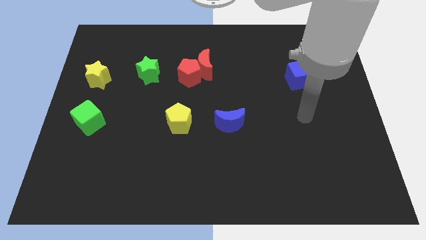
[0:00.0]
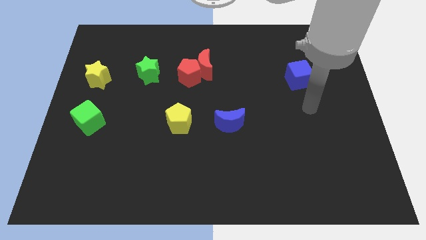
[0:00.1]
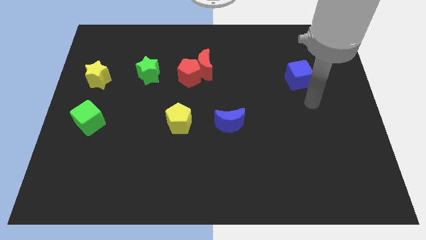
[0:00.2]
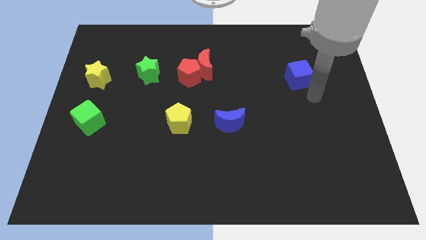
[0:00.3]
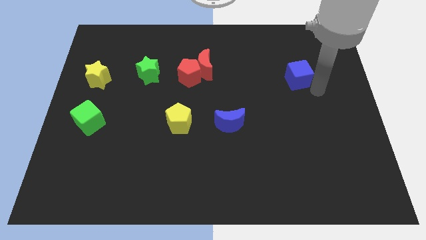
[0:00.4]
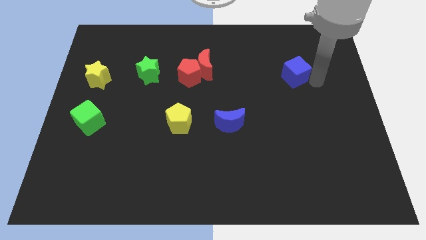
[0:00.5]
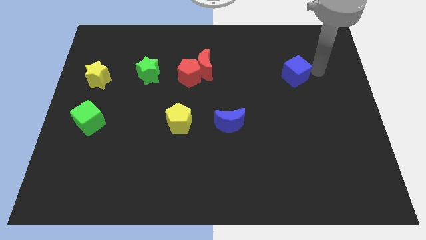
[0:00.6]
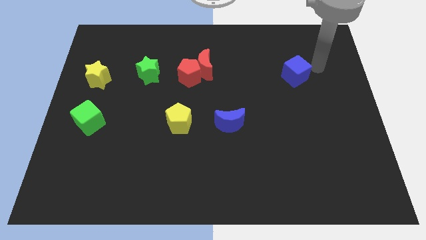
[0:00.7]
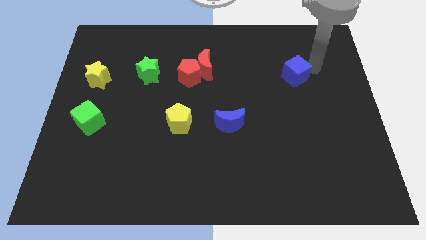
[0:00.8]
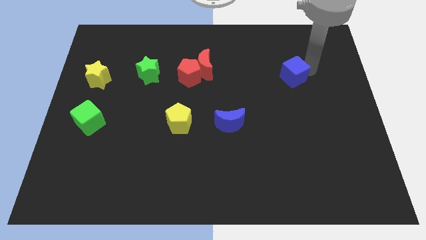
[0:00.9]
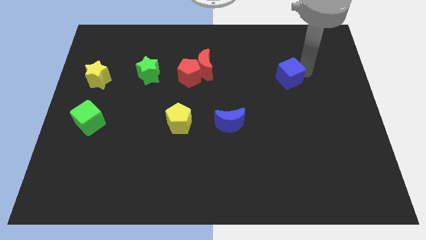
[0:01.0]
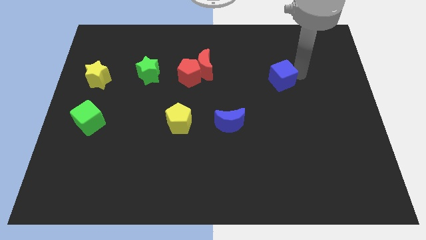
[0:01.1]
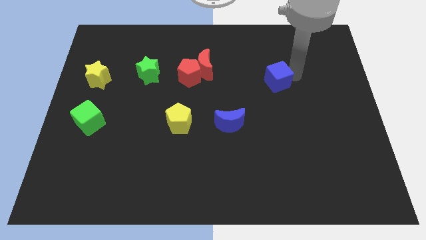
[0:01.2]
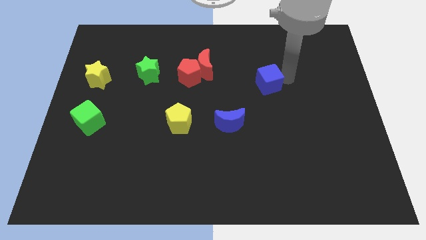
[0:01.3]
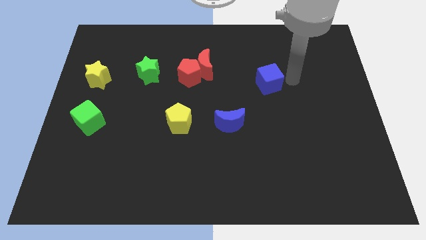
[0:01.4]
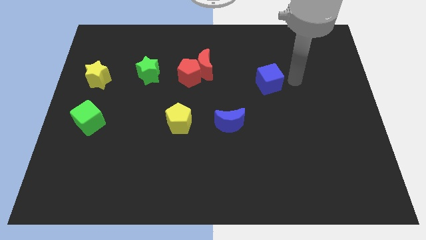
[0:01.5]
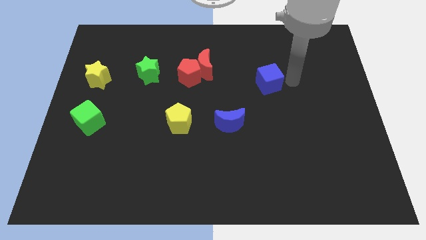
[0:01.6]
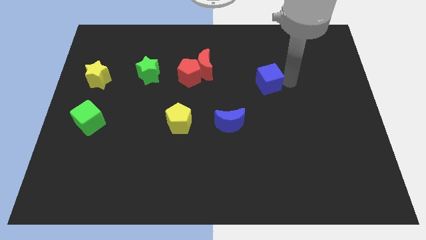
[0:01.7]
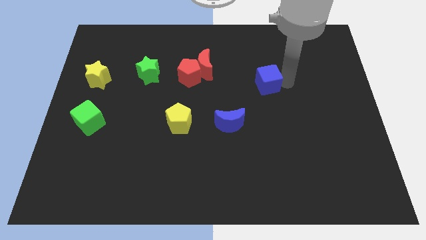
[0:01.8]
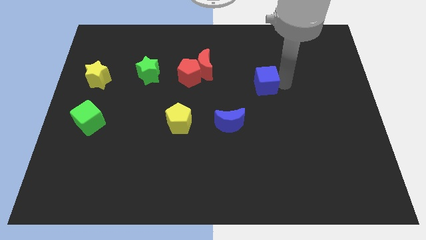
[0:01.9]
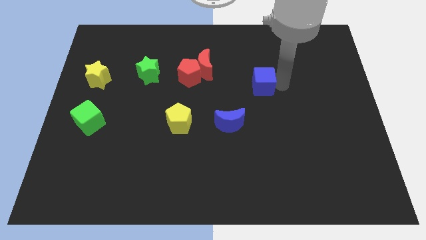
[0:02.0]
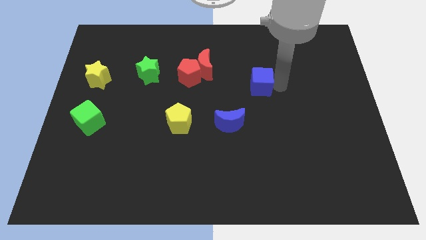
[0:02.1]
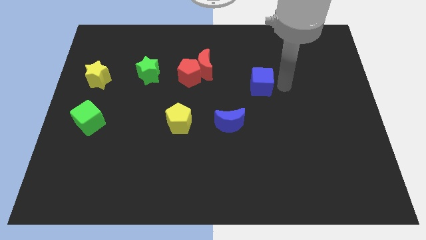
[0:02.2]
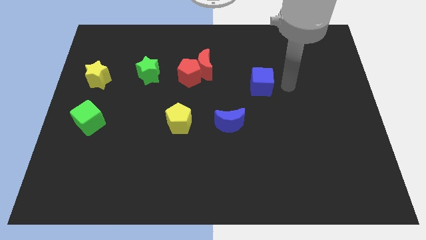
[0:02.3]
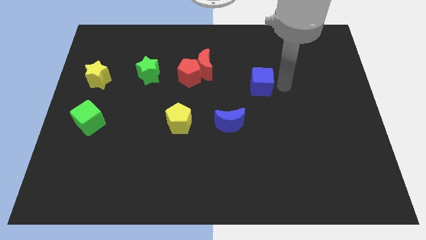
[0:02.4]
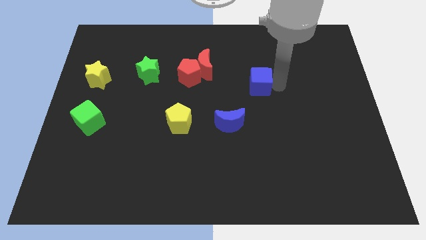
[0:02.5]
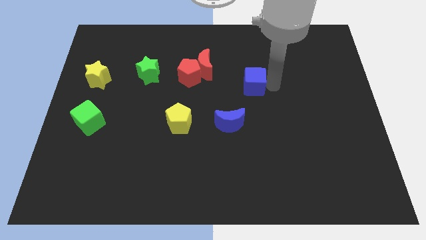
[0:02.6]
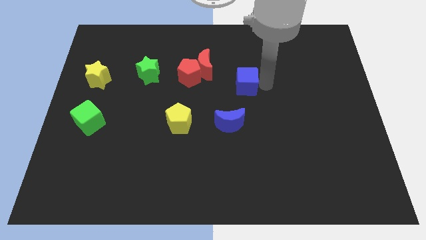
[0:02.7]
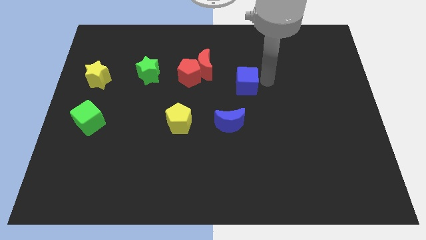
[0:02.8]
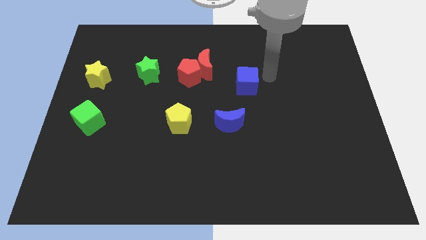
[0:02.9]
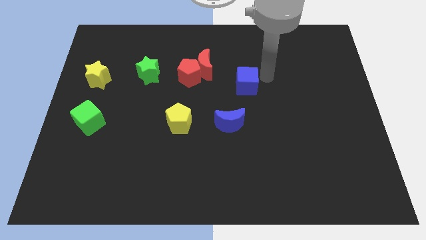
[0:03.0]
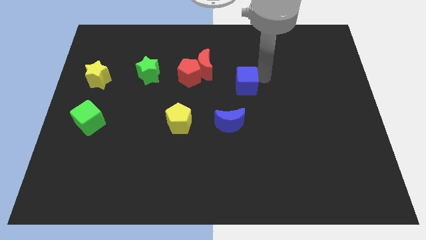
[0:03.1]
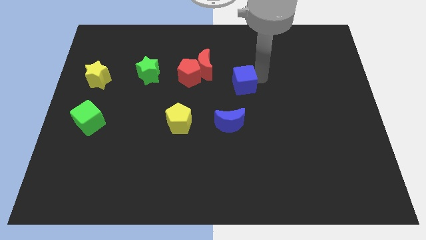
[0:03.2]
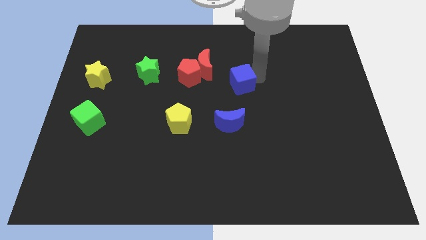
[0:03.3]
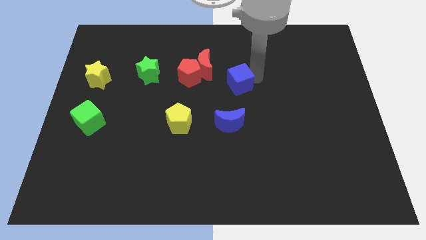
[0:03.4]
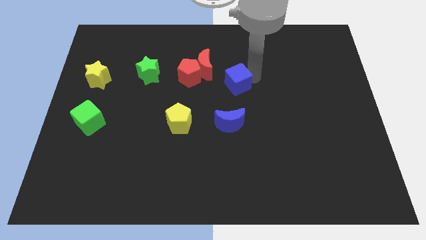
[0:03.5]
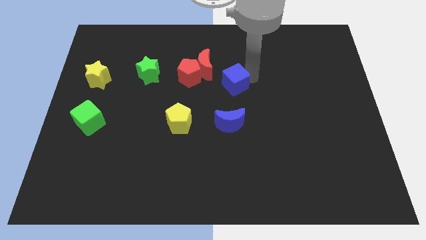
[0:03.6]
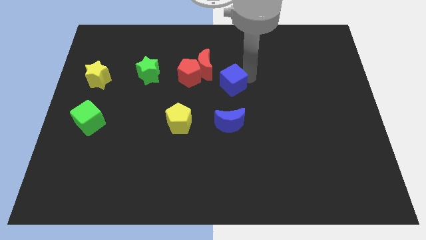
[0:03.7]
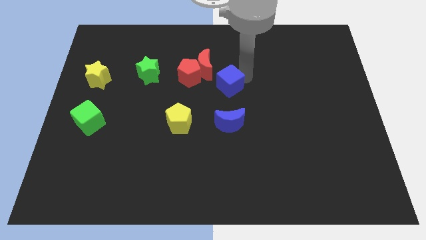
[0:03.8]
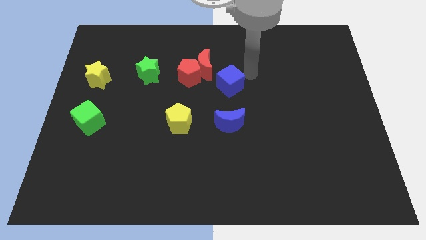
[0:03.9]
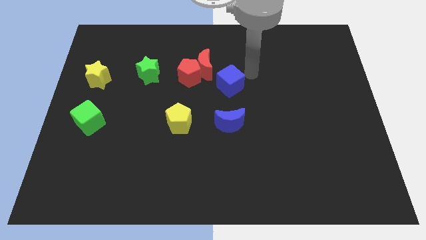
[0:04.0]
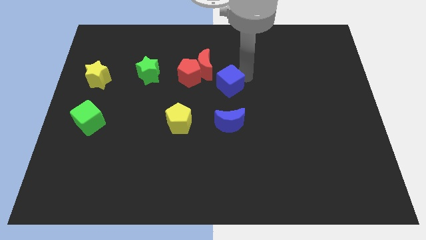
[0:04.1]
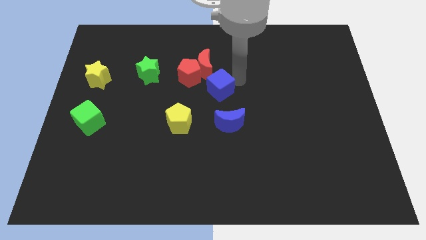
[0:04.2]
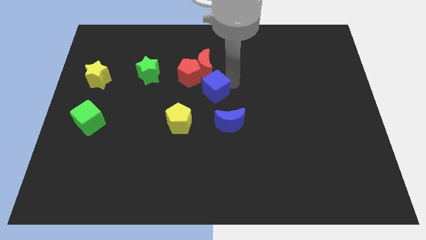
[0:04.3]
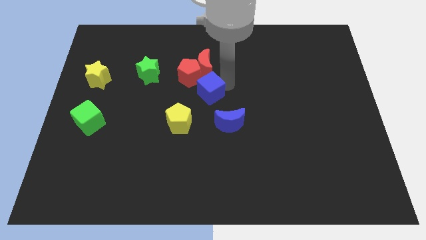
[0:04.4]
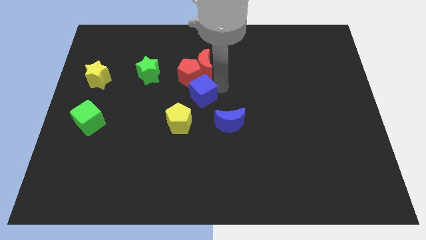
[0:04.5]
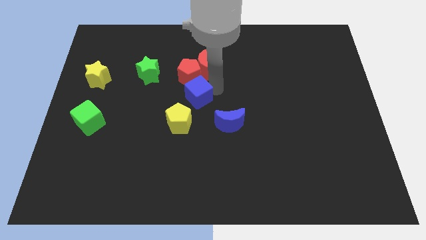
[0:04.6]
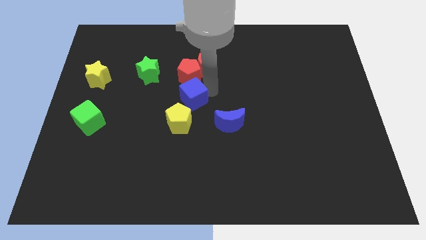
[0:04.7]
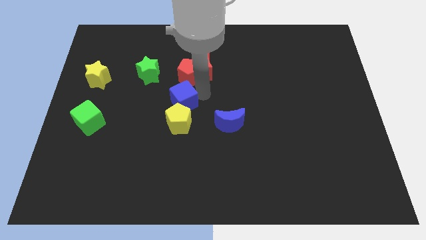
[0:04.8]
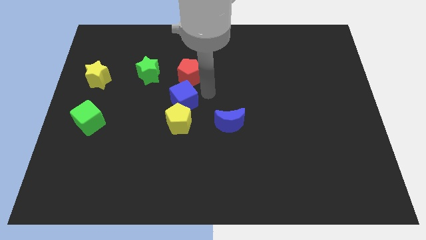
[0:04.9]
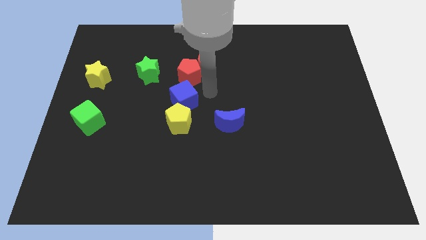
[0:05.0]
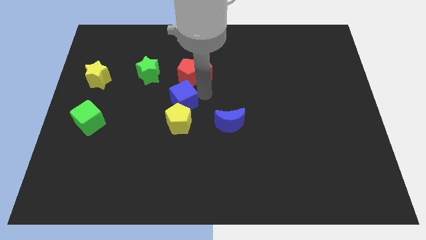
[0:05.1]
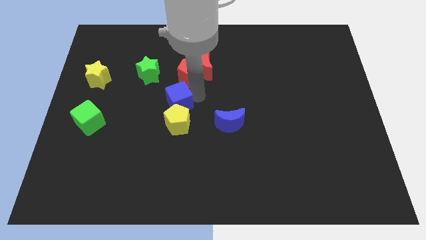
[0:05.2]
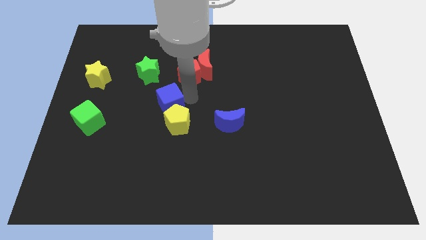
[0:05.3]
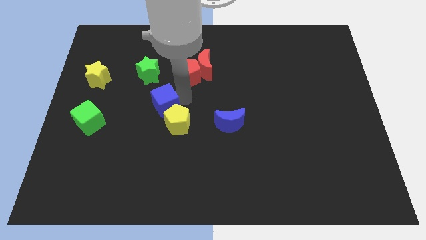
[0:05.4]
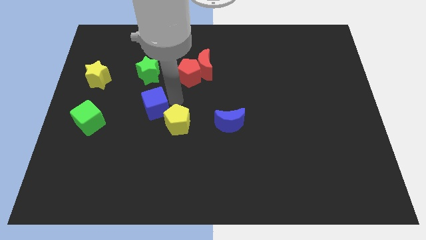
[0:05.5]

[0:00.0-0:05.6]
put the blue cube left of the yellow pentagon
